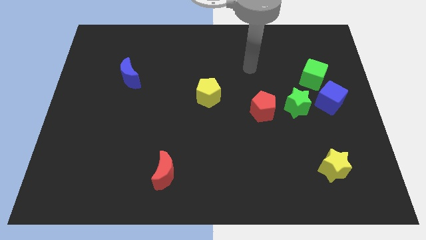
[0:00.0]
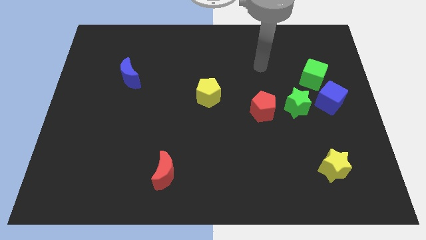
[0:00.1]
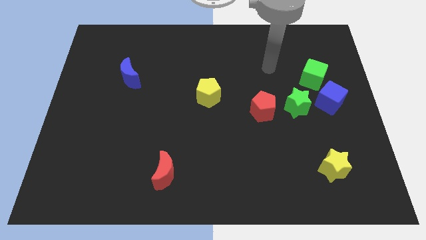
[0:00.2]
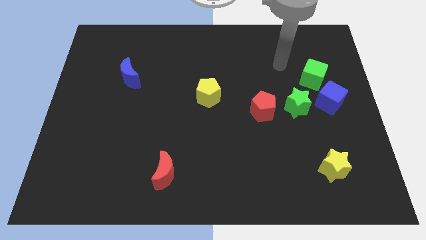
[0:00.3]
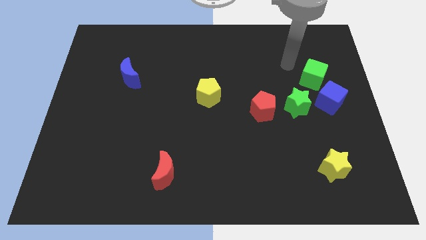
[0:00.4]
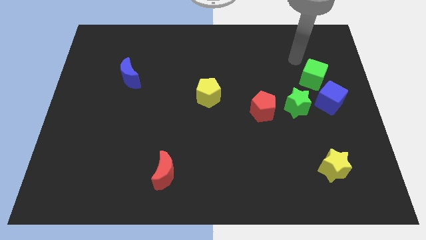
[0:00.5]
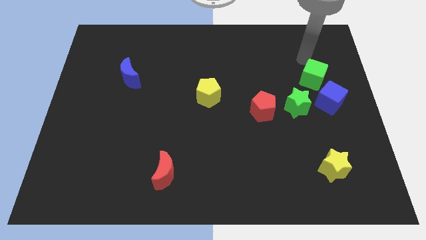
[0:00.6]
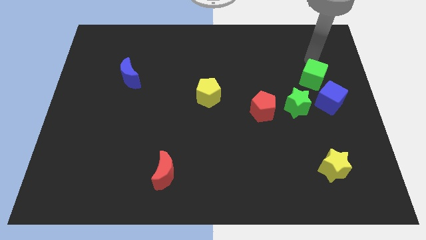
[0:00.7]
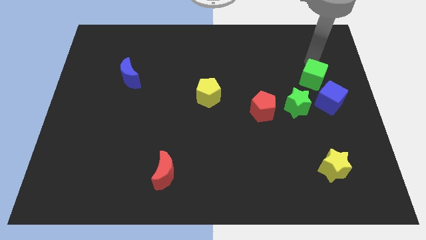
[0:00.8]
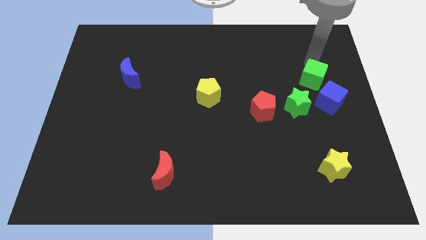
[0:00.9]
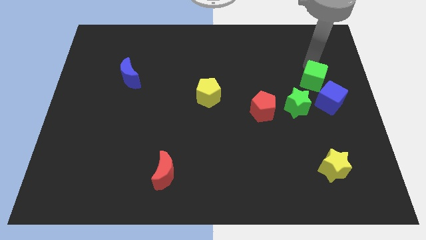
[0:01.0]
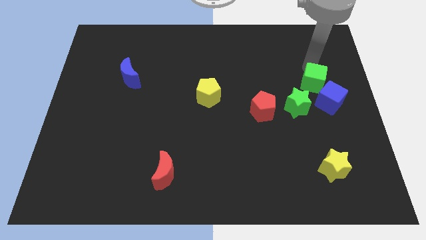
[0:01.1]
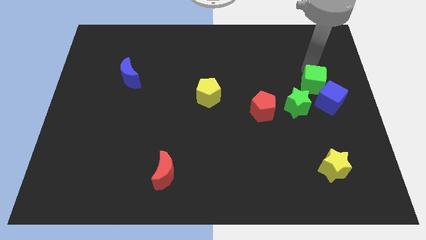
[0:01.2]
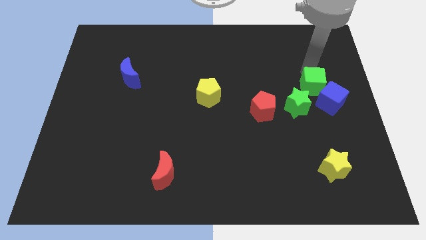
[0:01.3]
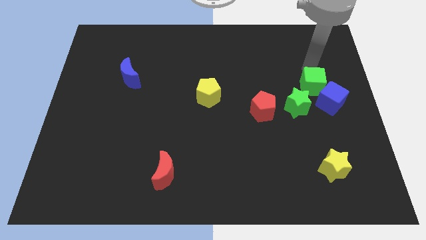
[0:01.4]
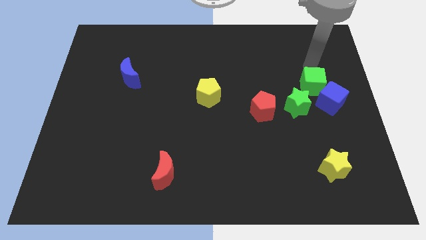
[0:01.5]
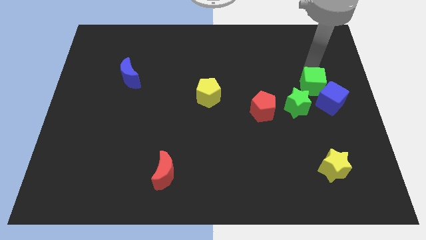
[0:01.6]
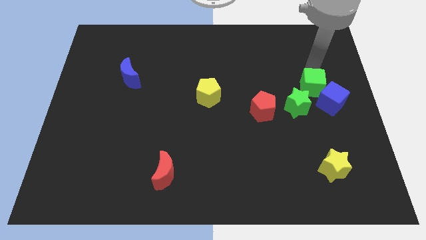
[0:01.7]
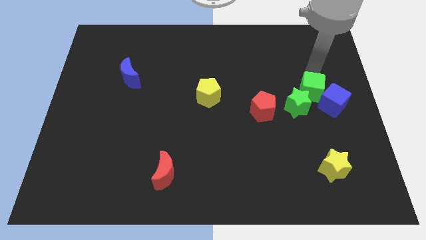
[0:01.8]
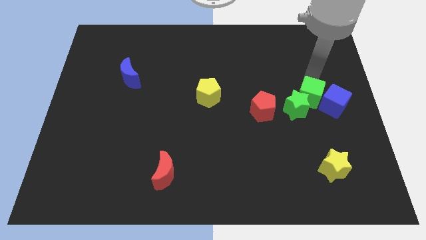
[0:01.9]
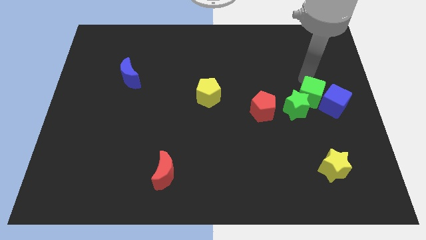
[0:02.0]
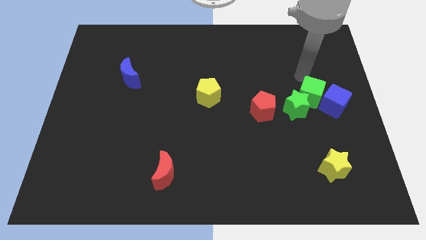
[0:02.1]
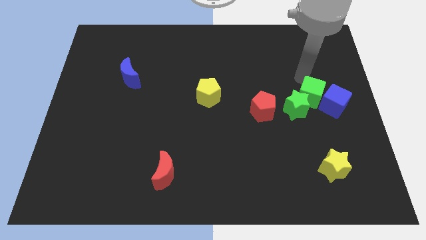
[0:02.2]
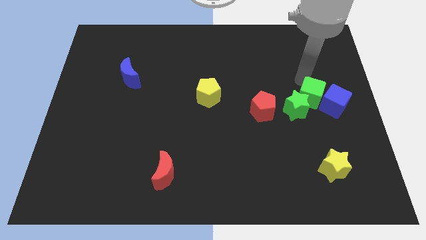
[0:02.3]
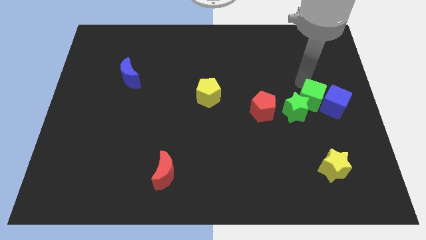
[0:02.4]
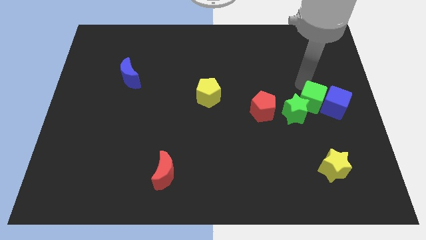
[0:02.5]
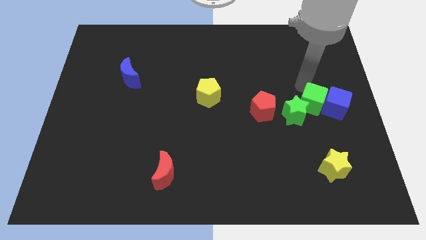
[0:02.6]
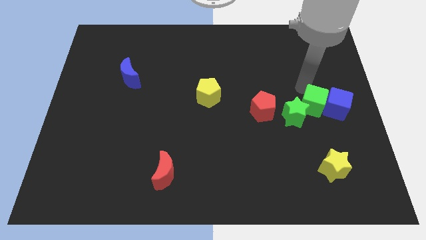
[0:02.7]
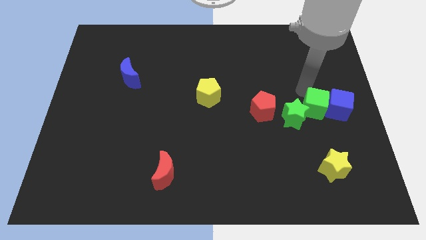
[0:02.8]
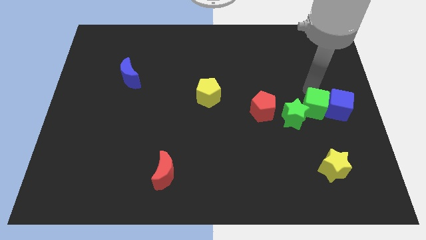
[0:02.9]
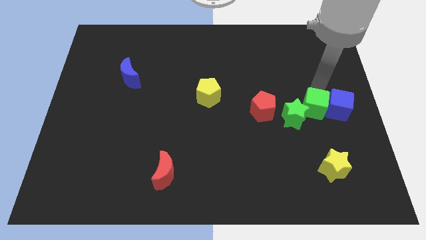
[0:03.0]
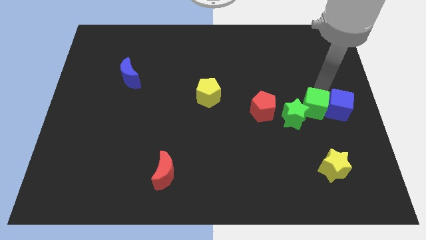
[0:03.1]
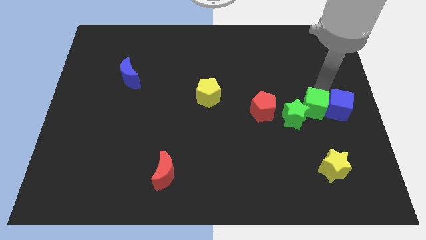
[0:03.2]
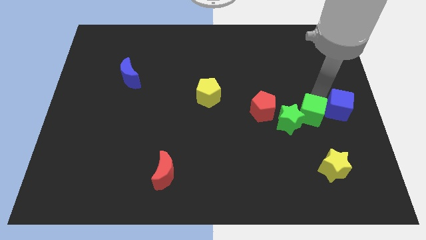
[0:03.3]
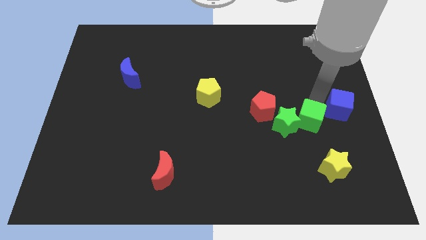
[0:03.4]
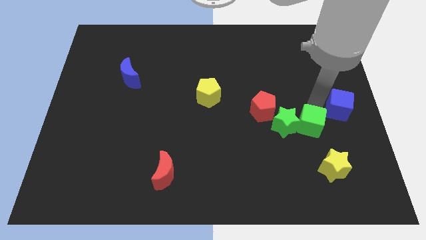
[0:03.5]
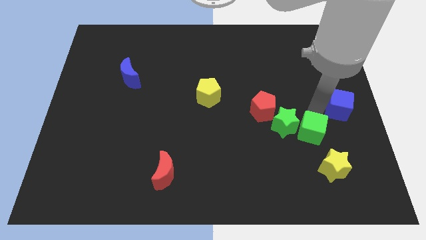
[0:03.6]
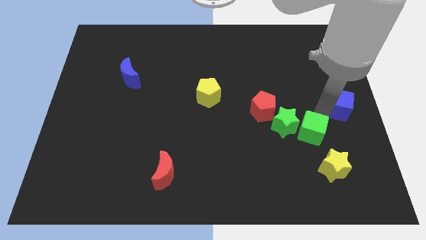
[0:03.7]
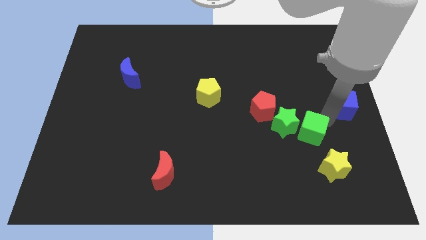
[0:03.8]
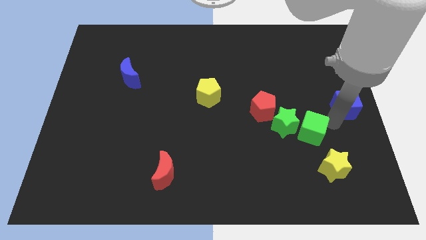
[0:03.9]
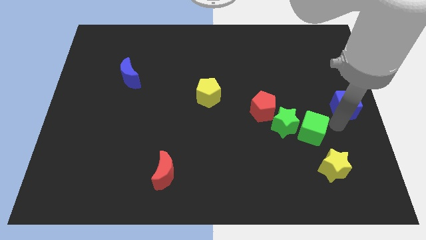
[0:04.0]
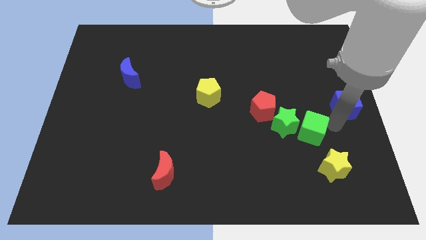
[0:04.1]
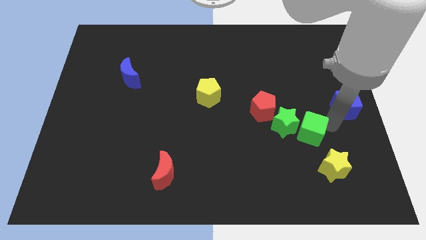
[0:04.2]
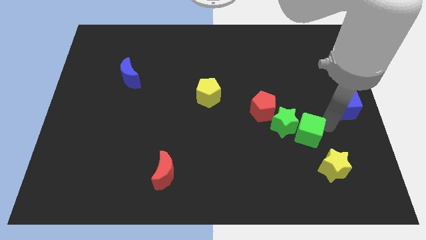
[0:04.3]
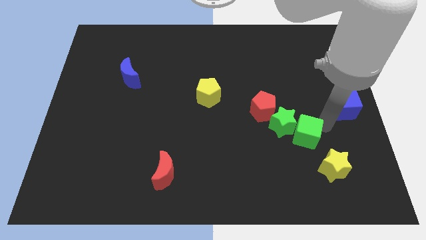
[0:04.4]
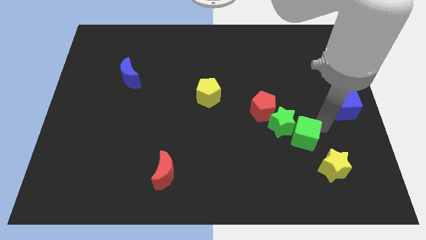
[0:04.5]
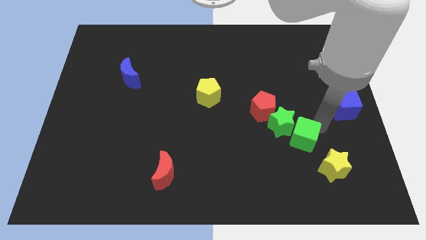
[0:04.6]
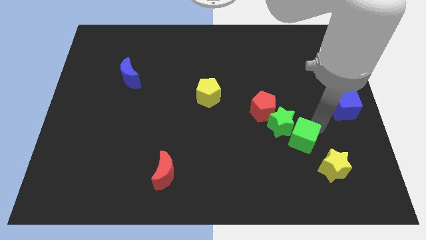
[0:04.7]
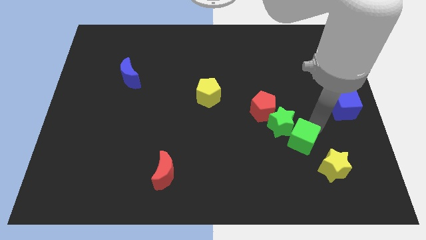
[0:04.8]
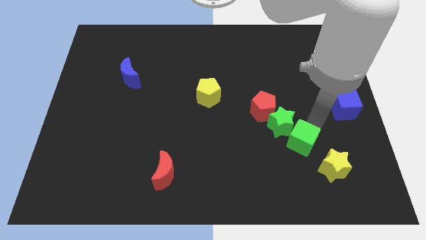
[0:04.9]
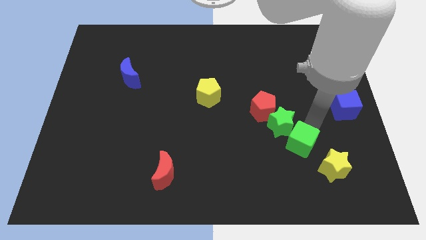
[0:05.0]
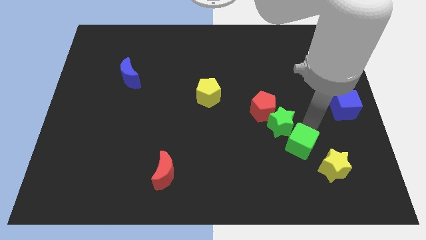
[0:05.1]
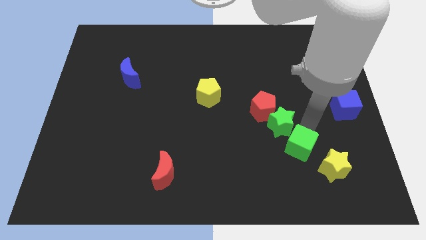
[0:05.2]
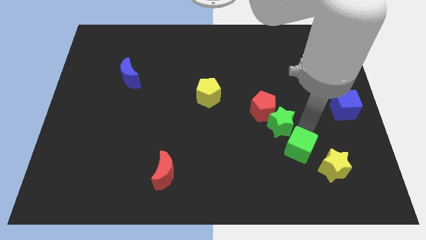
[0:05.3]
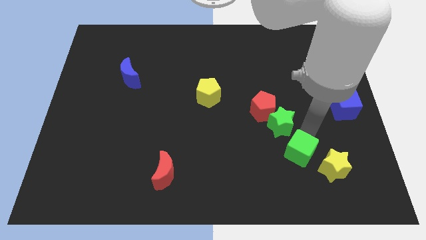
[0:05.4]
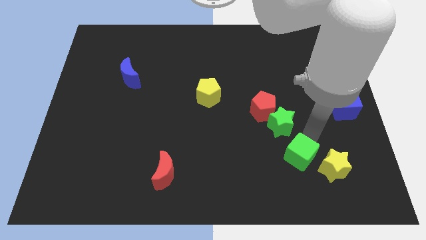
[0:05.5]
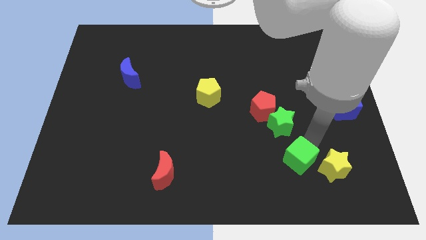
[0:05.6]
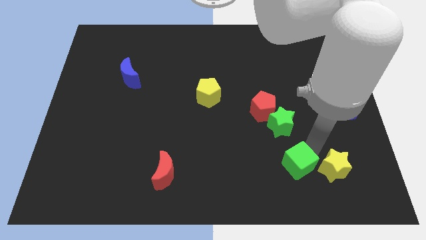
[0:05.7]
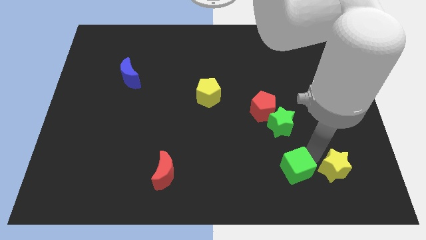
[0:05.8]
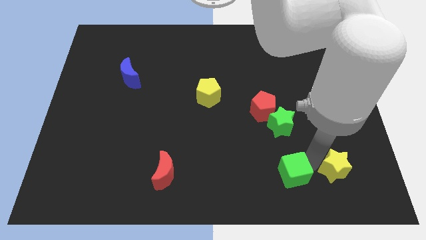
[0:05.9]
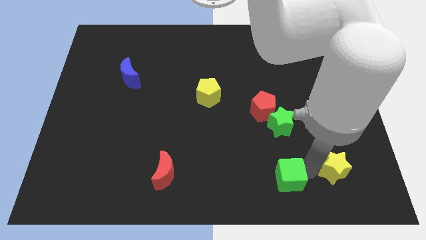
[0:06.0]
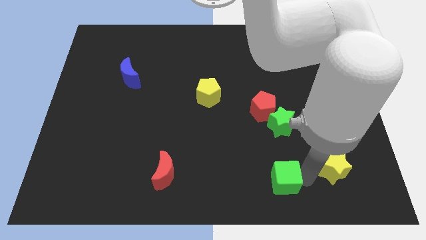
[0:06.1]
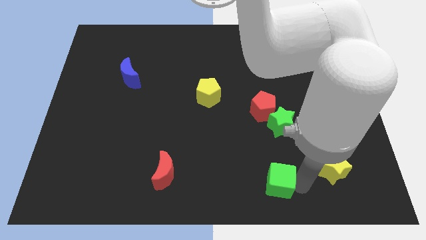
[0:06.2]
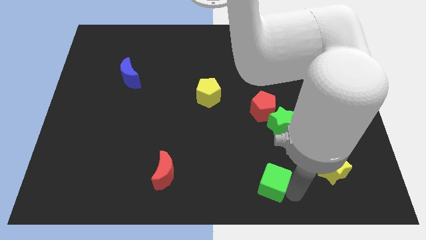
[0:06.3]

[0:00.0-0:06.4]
put the green cube to the bottom
